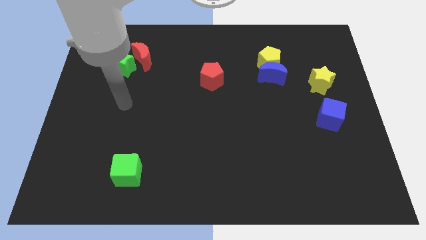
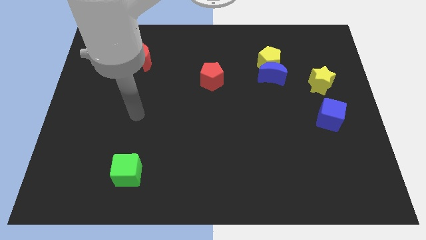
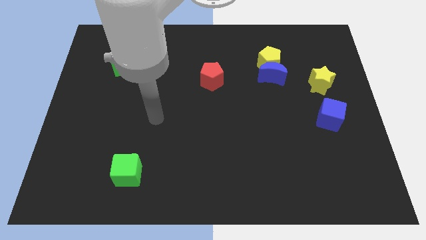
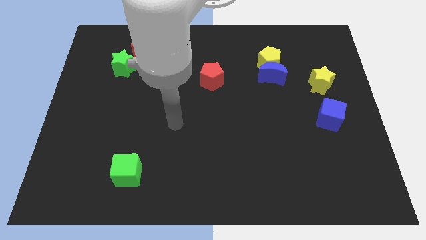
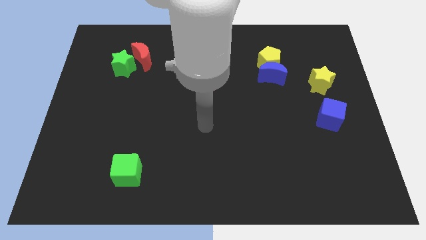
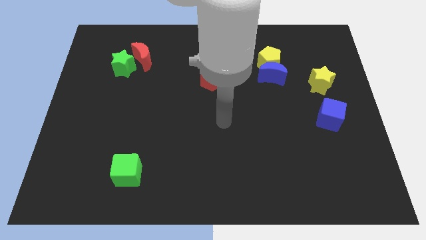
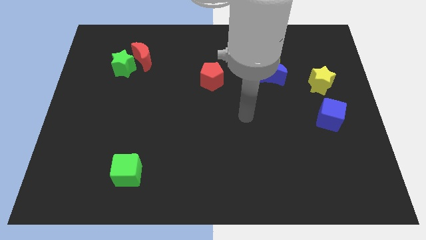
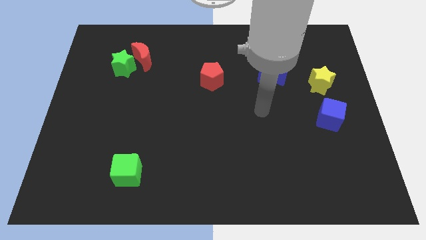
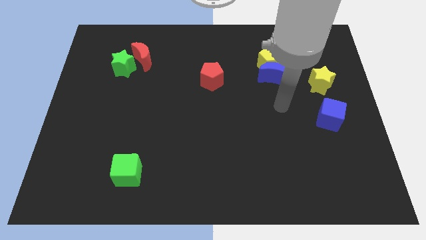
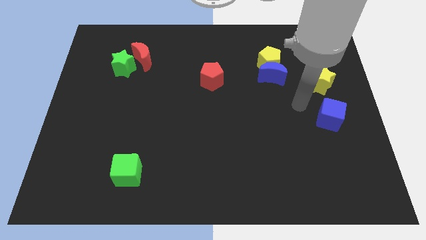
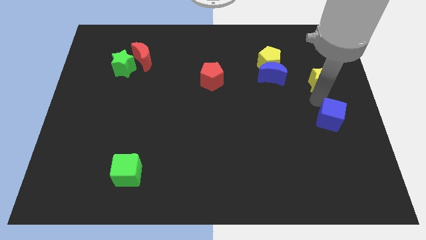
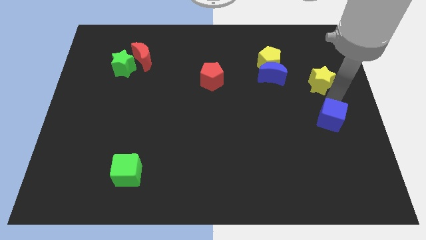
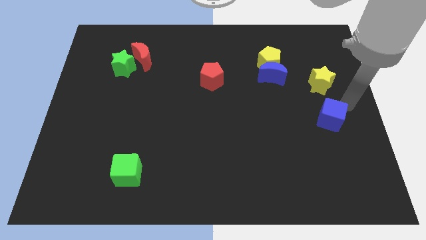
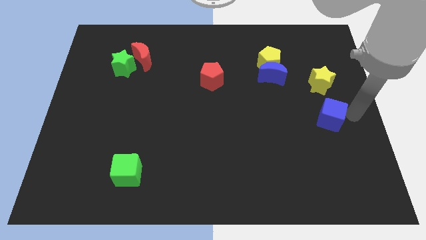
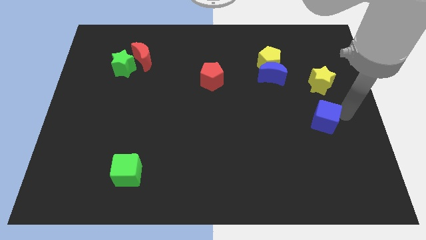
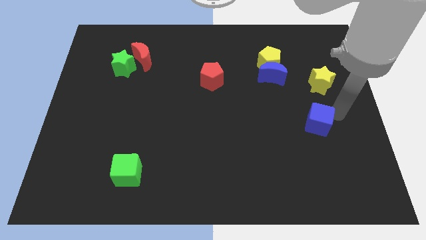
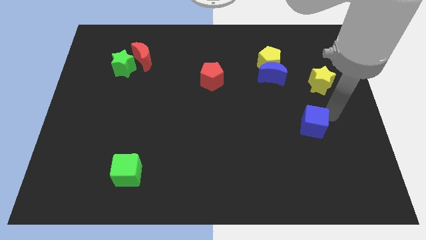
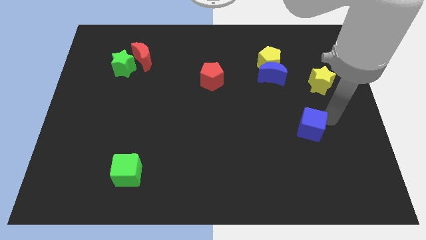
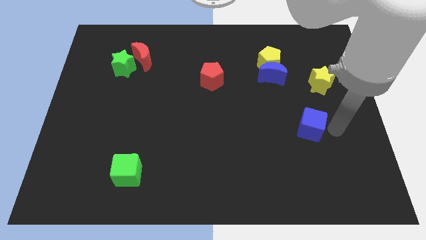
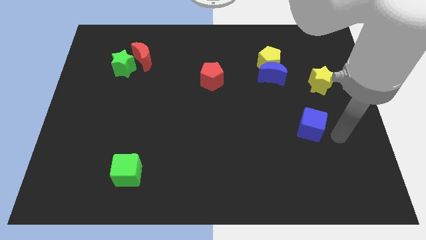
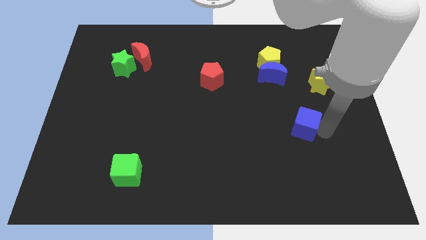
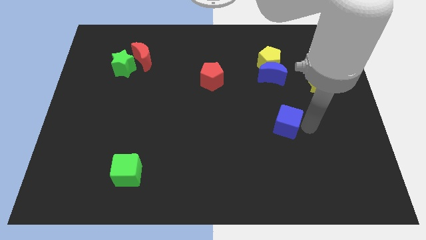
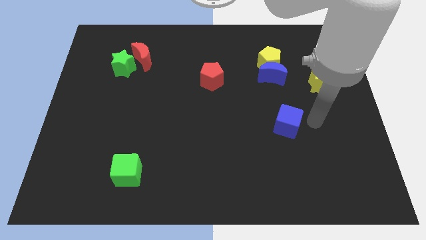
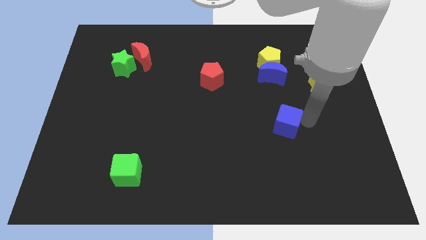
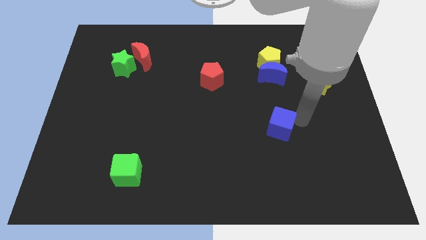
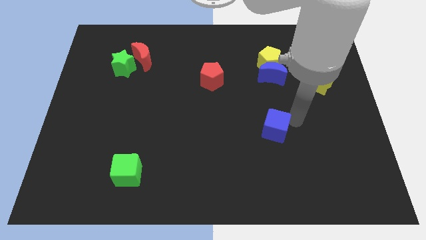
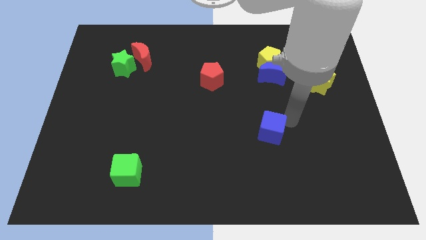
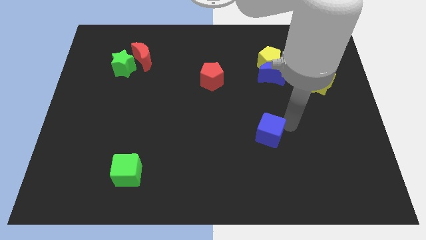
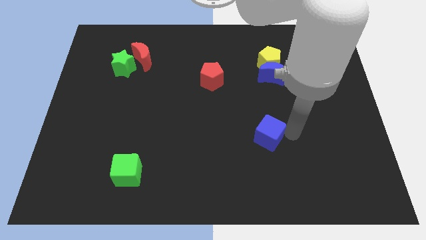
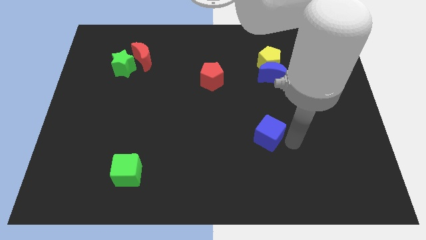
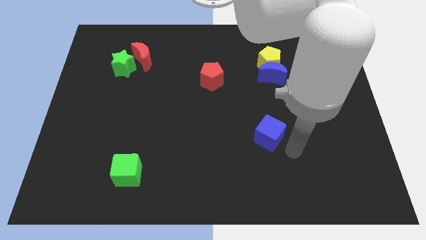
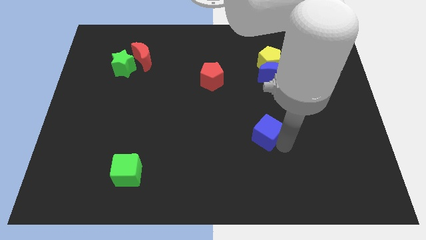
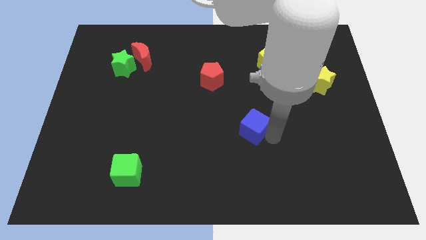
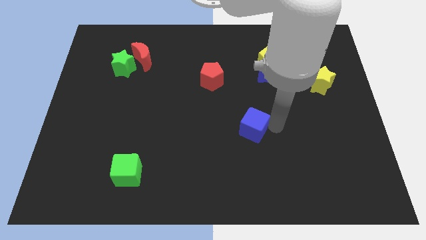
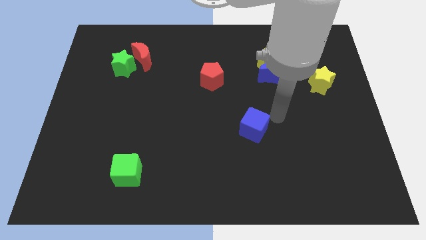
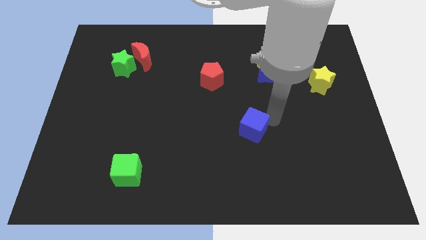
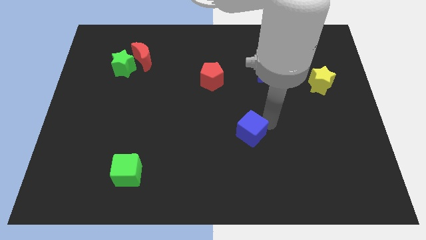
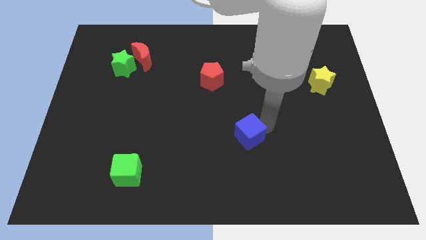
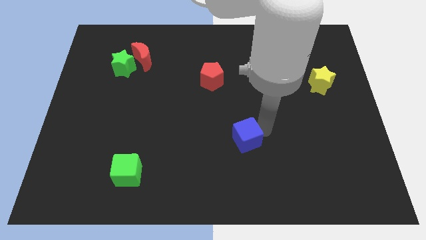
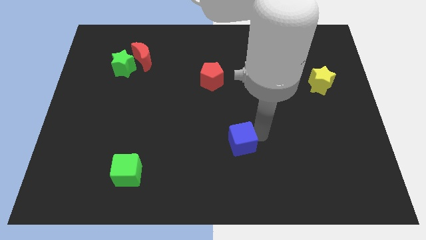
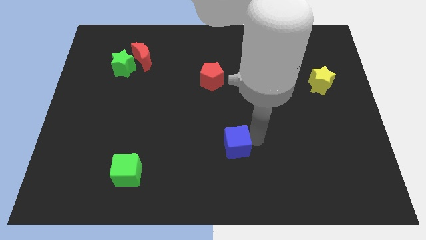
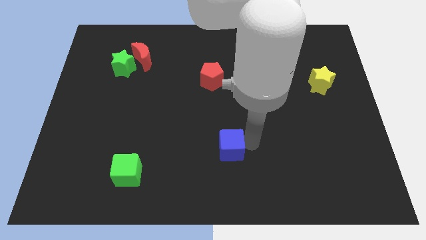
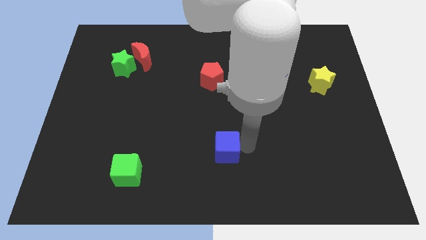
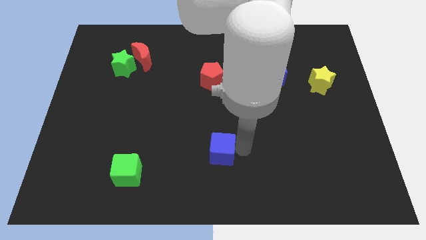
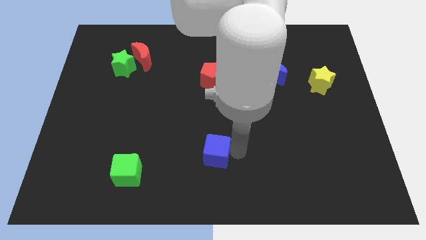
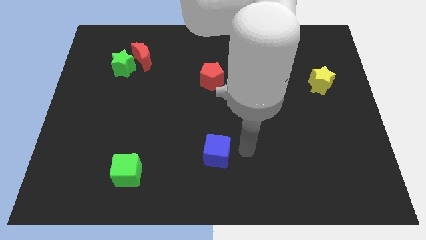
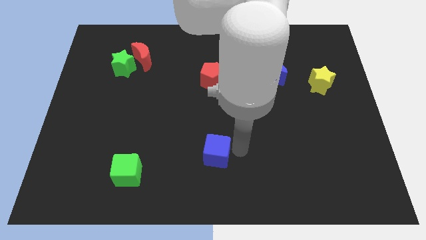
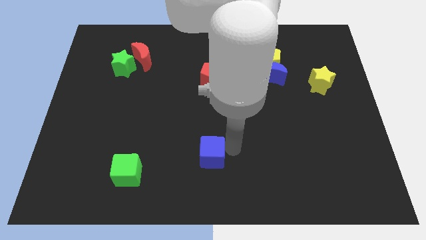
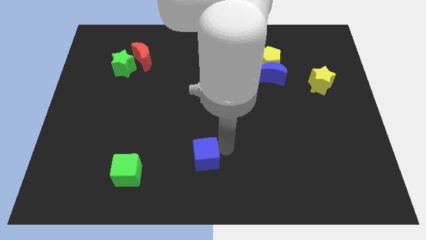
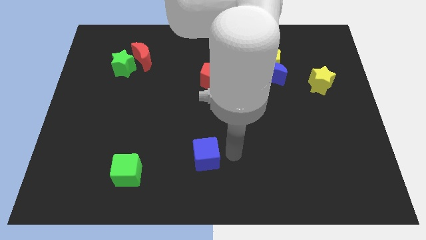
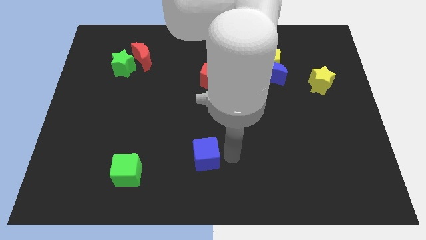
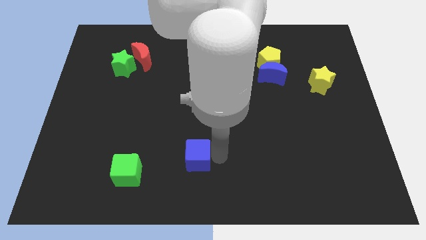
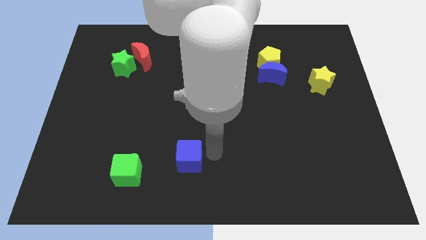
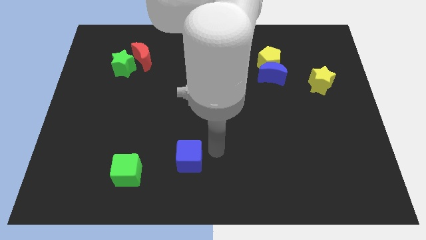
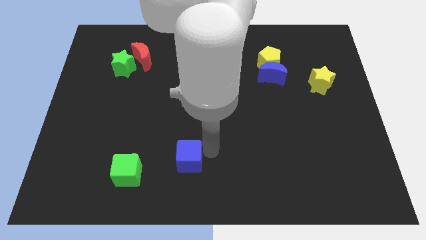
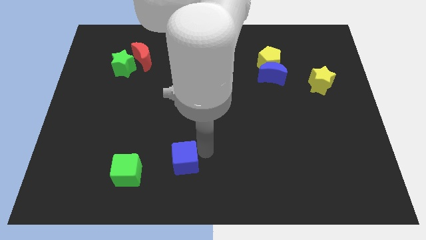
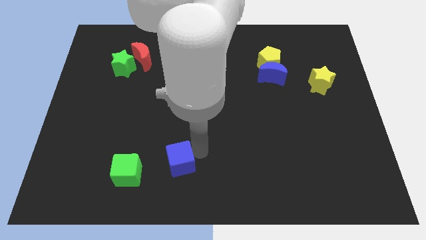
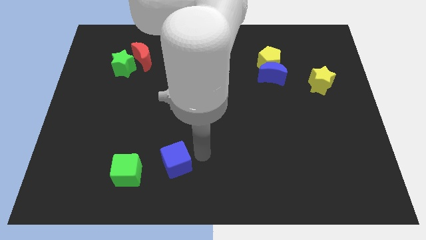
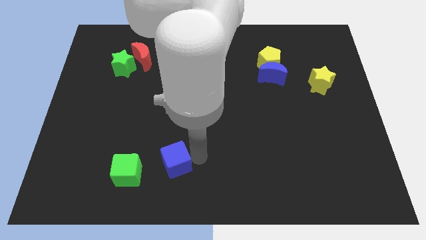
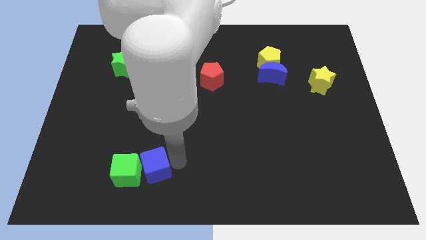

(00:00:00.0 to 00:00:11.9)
move the blue cube to the green cube

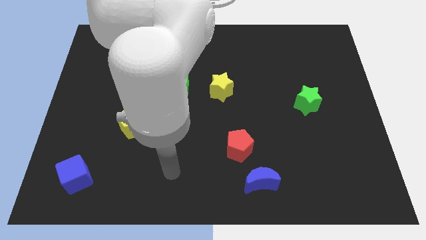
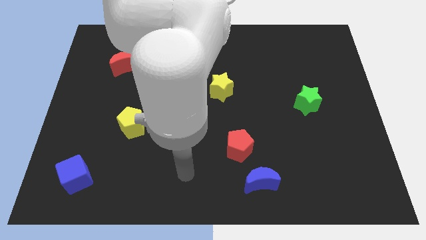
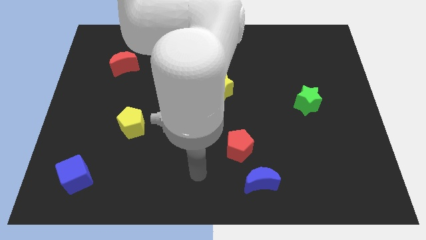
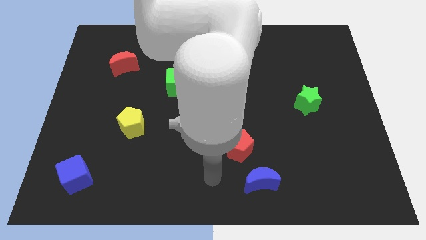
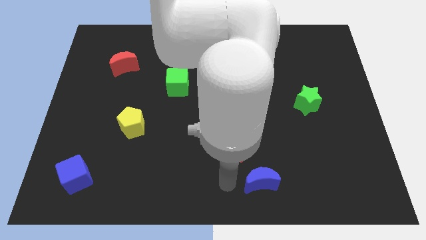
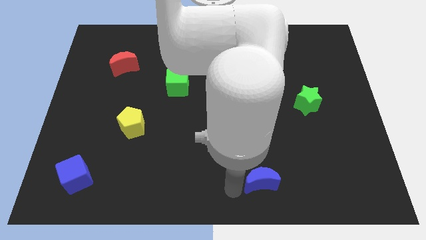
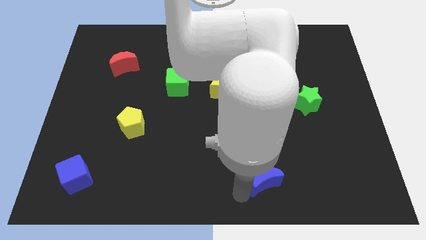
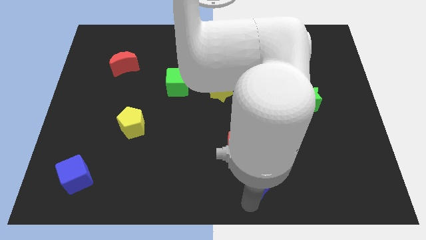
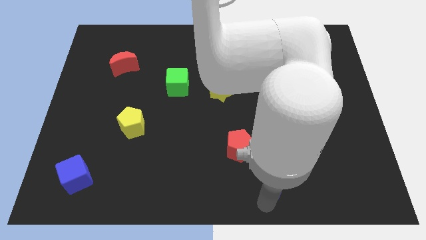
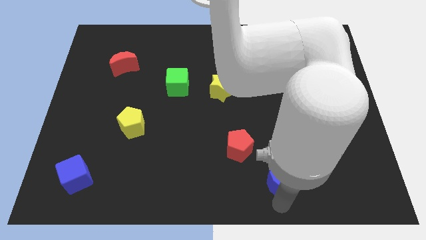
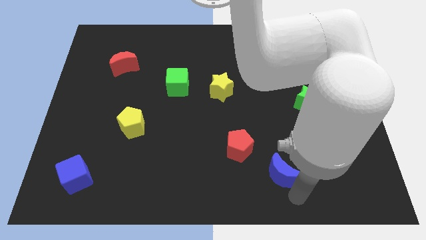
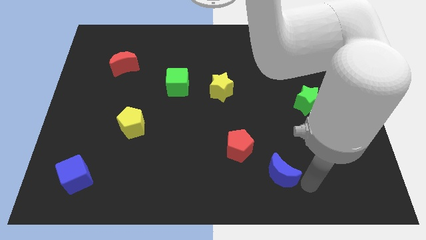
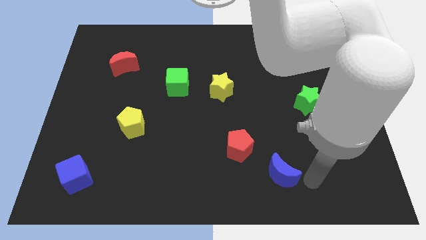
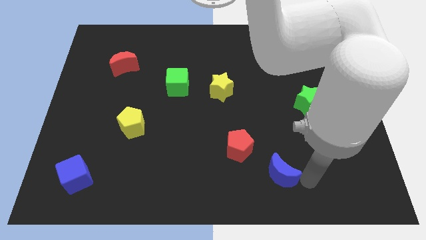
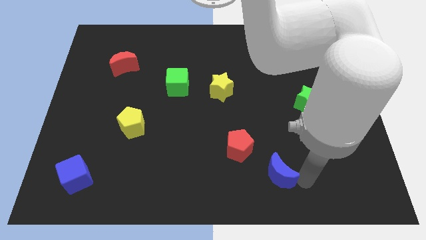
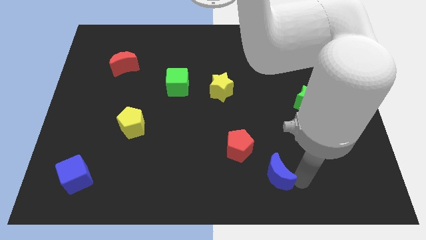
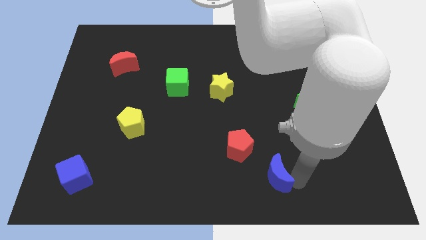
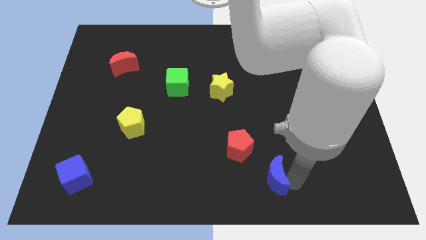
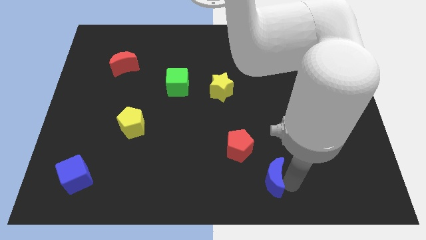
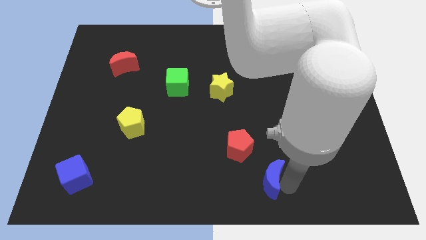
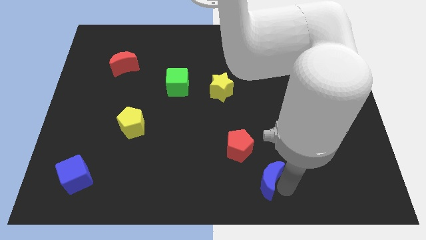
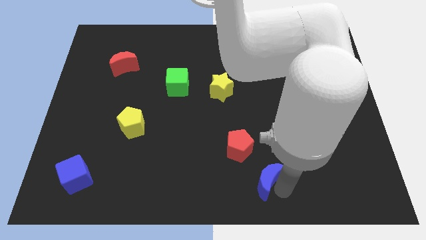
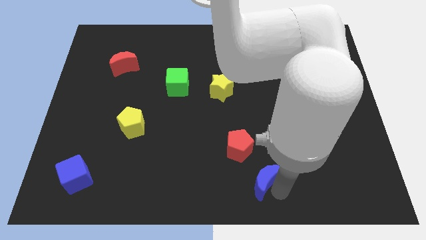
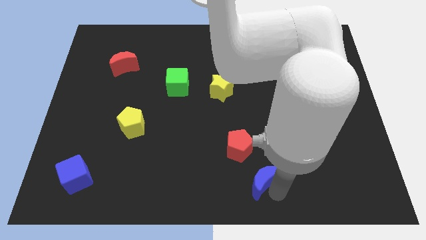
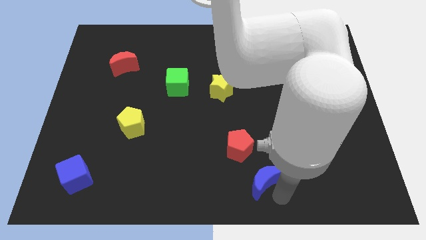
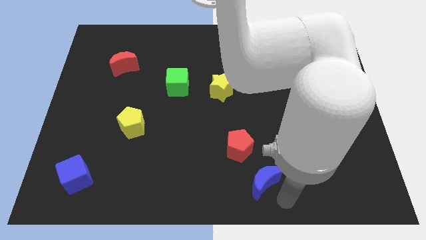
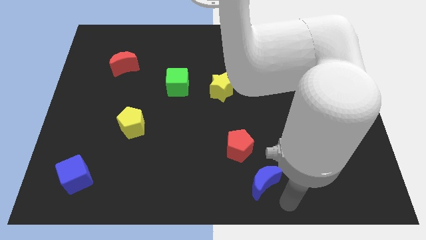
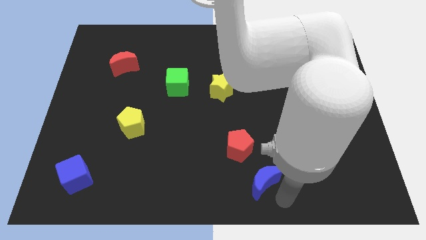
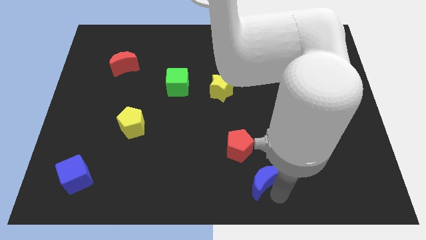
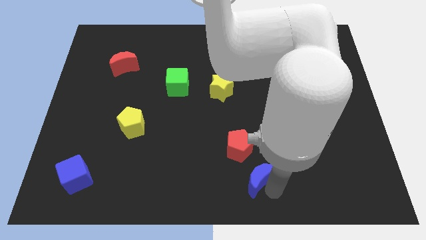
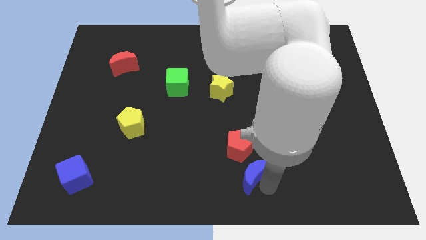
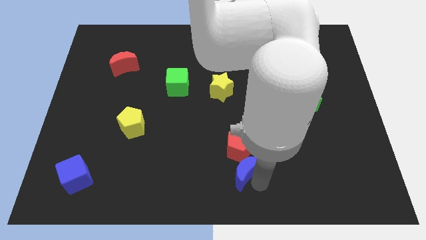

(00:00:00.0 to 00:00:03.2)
move the blue moon close to the red pentagon
